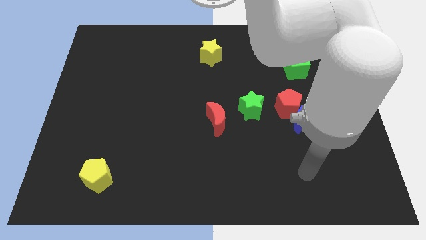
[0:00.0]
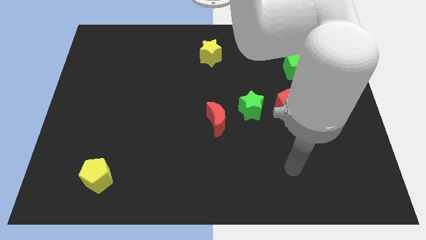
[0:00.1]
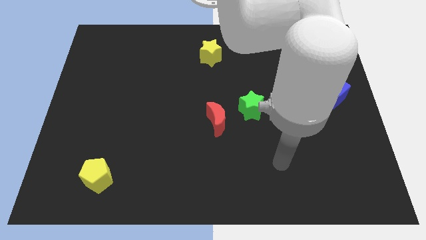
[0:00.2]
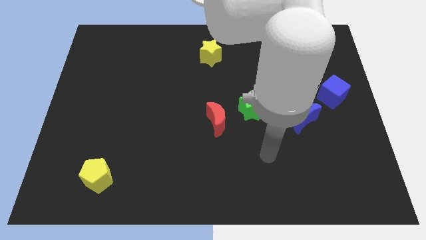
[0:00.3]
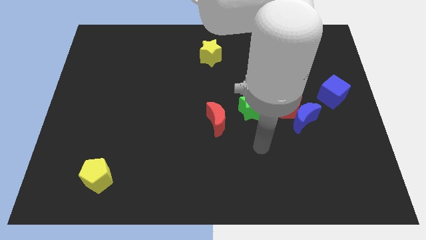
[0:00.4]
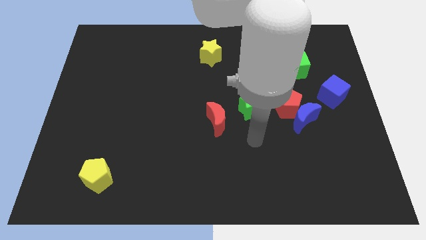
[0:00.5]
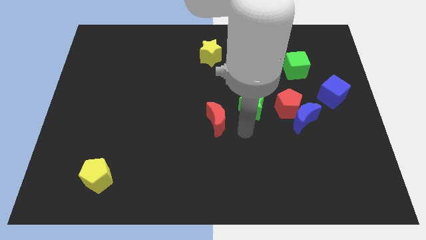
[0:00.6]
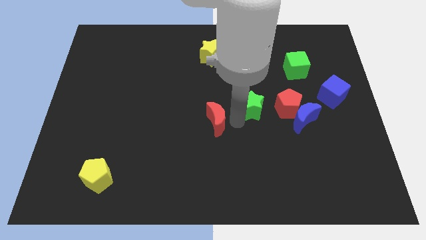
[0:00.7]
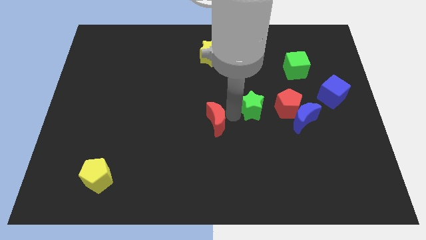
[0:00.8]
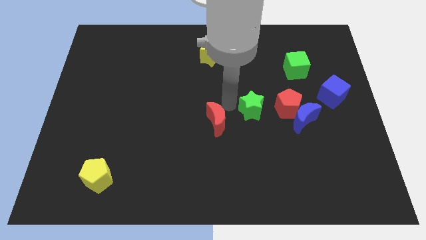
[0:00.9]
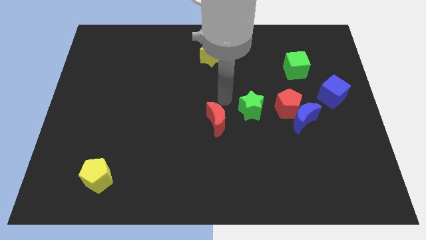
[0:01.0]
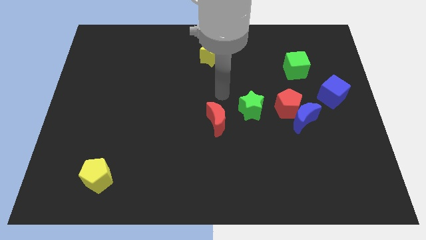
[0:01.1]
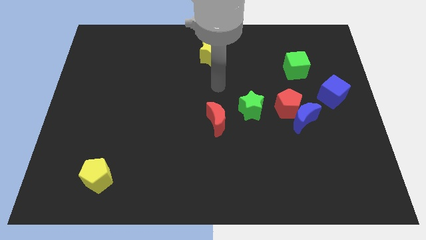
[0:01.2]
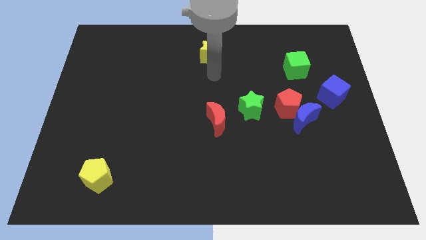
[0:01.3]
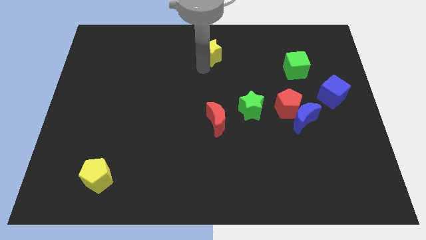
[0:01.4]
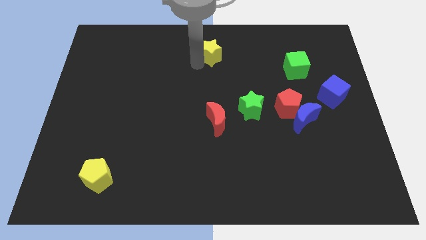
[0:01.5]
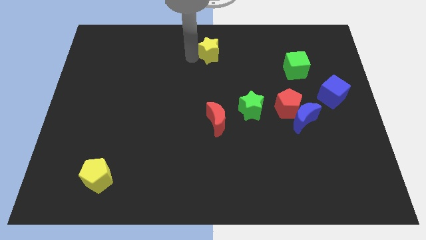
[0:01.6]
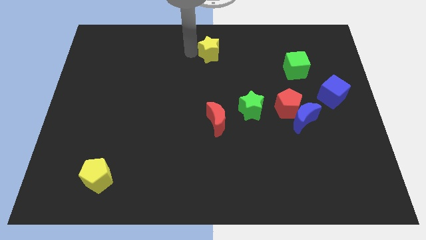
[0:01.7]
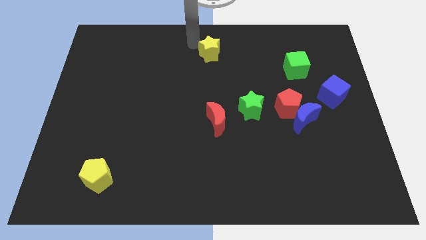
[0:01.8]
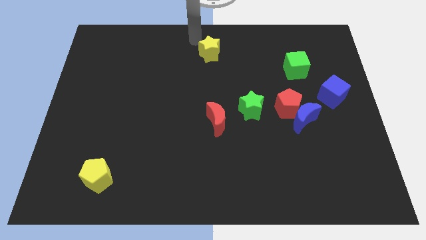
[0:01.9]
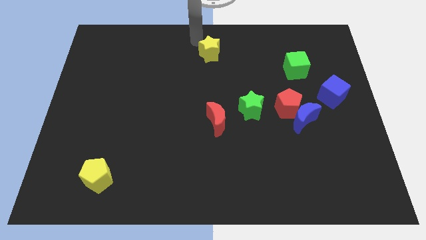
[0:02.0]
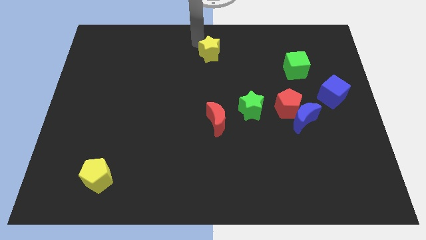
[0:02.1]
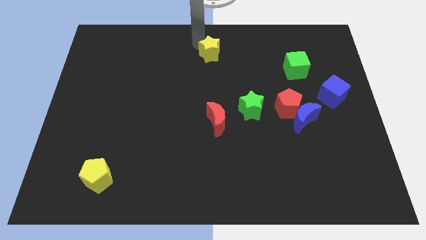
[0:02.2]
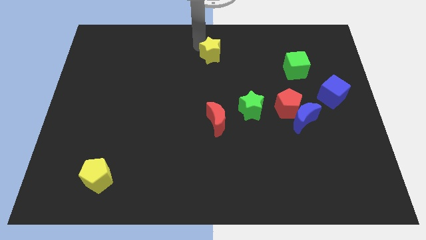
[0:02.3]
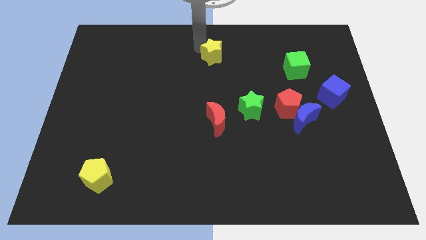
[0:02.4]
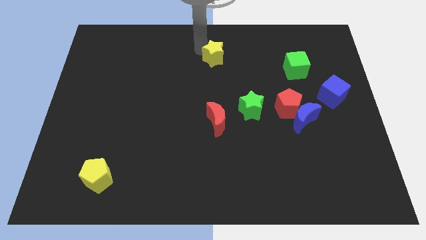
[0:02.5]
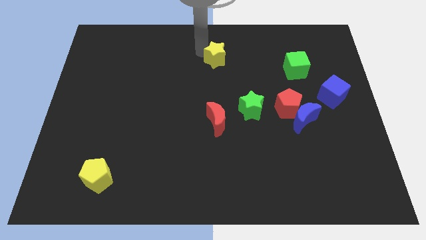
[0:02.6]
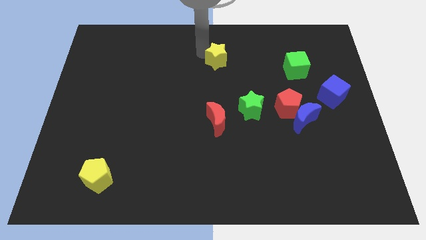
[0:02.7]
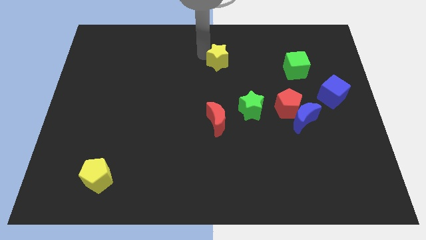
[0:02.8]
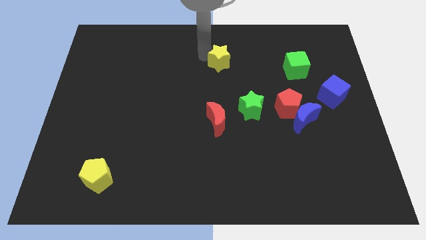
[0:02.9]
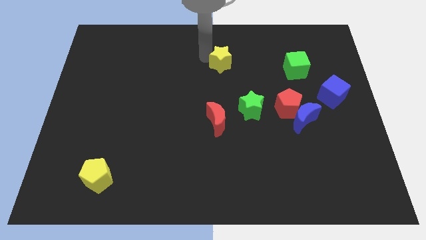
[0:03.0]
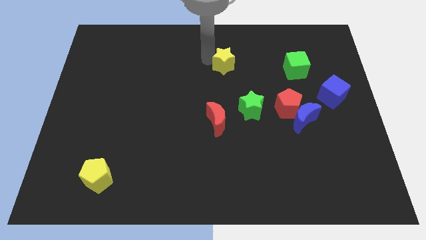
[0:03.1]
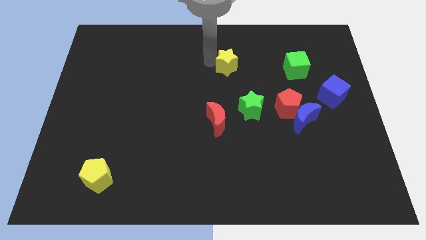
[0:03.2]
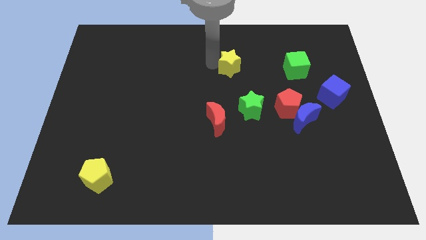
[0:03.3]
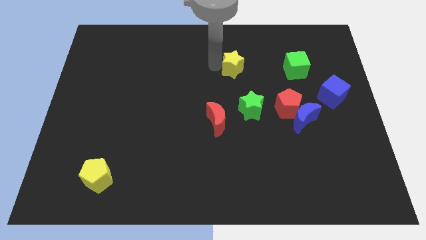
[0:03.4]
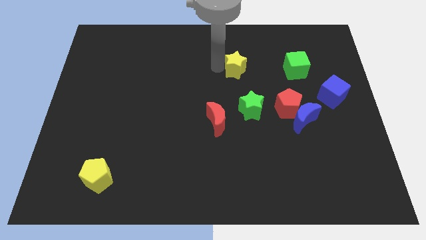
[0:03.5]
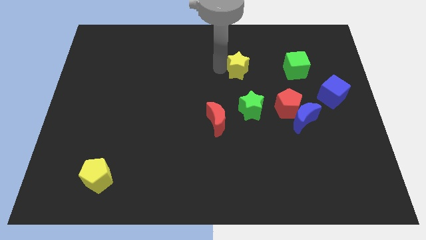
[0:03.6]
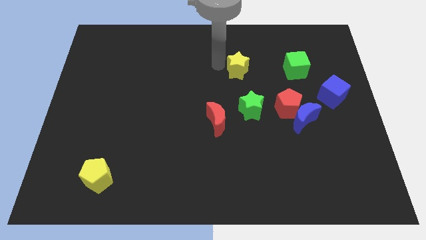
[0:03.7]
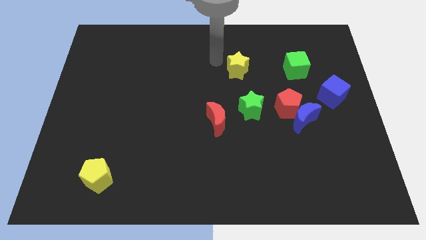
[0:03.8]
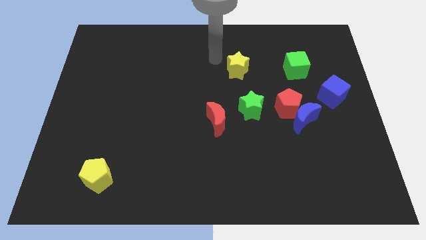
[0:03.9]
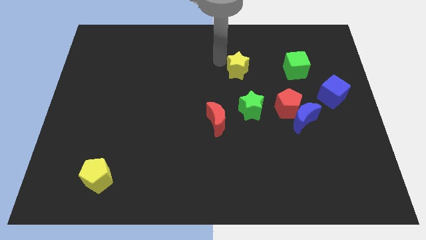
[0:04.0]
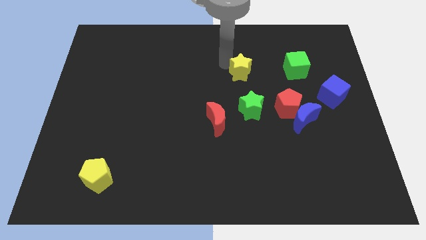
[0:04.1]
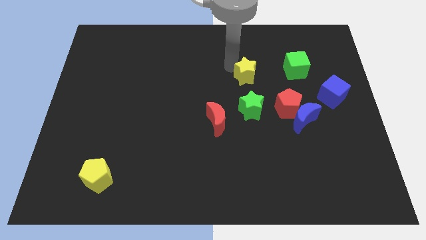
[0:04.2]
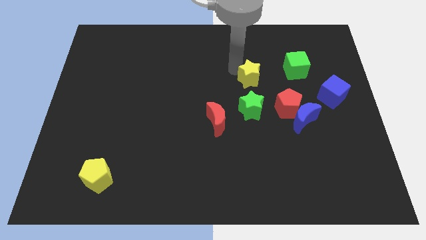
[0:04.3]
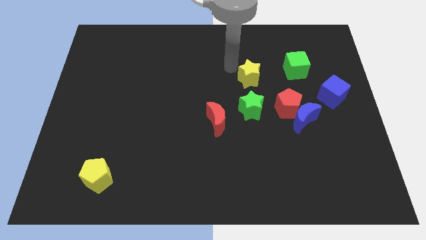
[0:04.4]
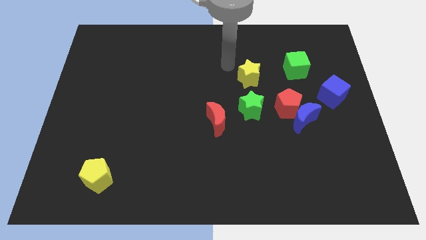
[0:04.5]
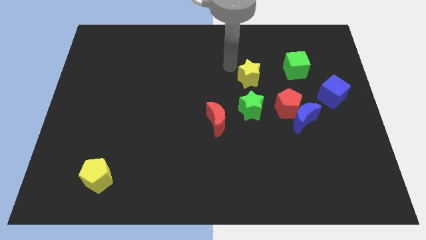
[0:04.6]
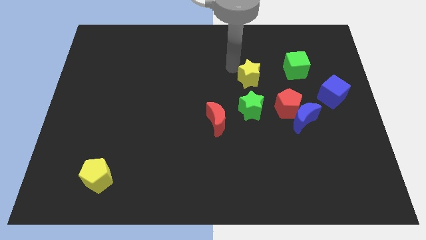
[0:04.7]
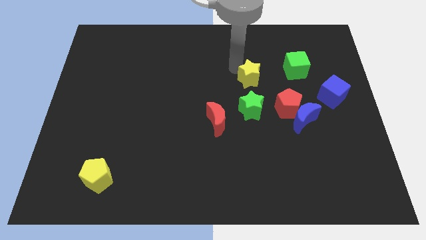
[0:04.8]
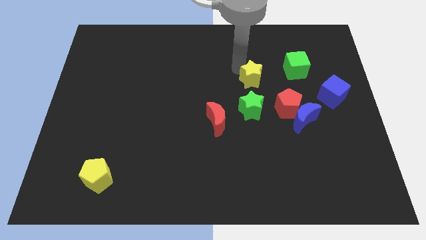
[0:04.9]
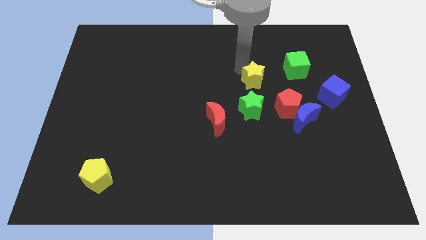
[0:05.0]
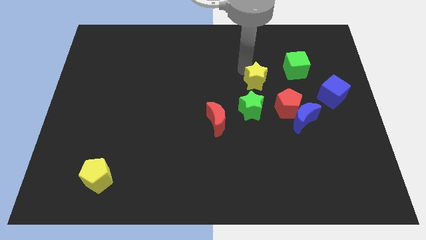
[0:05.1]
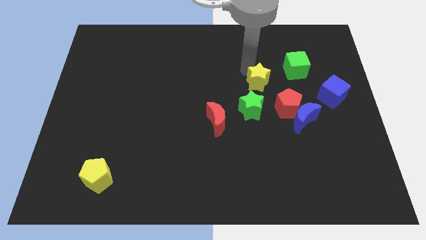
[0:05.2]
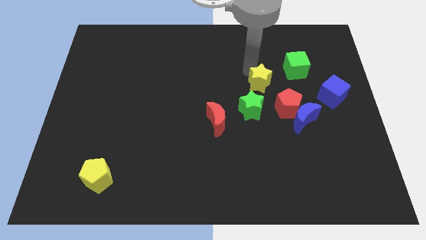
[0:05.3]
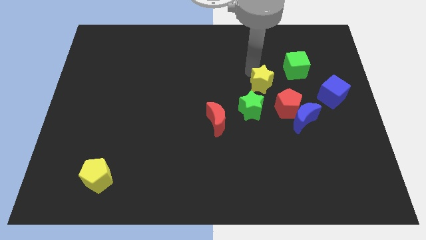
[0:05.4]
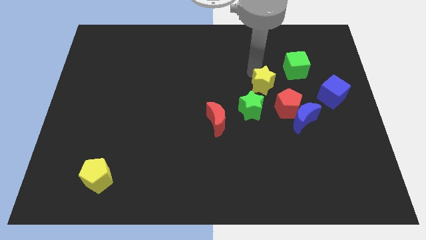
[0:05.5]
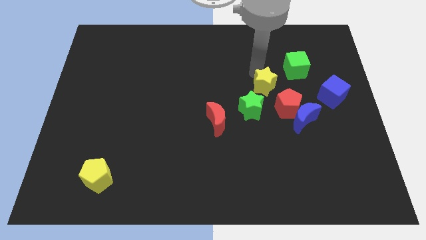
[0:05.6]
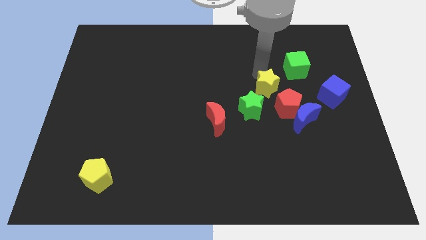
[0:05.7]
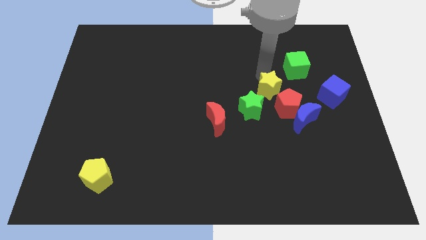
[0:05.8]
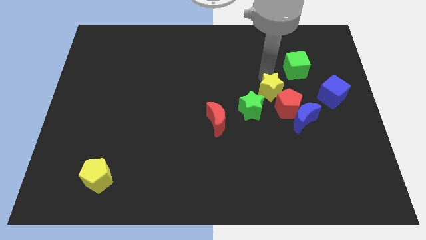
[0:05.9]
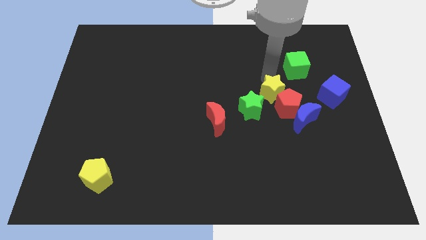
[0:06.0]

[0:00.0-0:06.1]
push the yellow star to the red pentagon

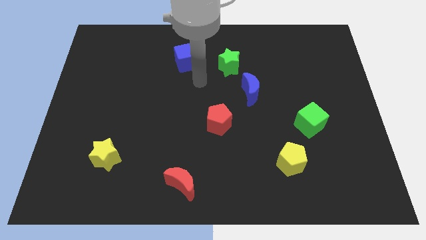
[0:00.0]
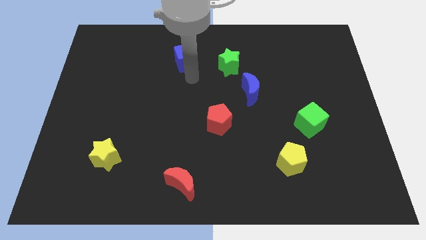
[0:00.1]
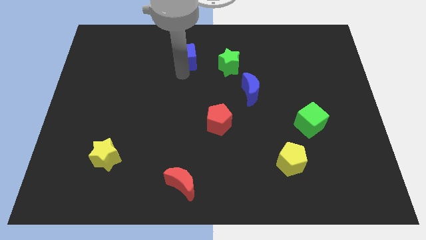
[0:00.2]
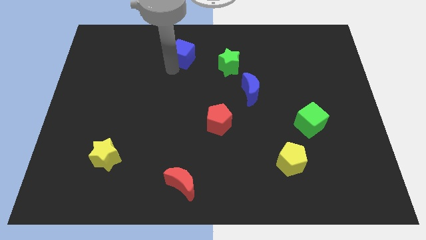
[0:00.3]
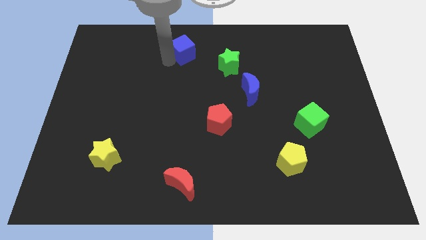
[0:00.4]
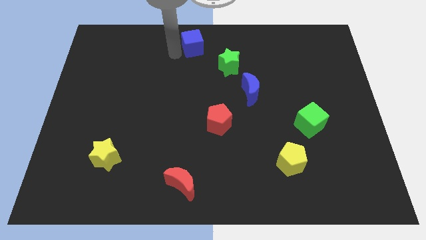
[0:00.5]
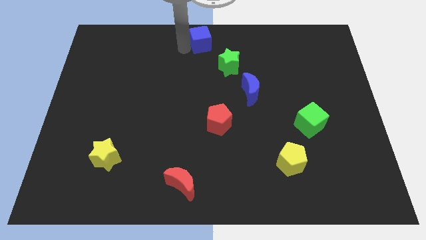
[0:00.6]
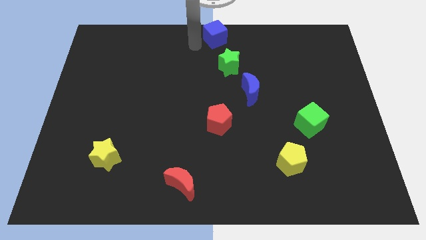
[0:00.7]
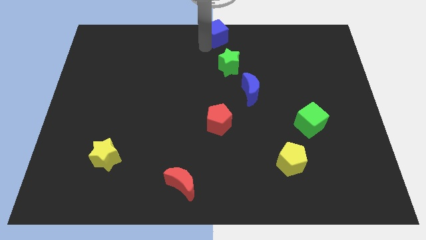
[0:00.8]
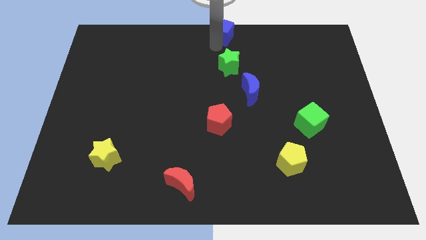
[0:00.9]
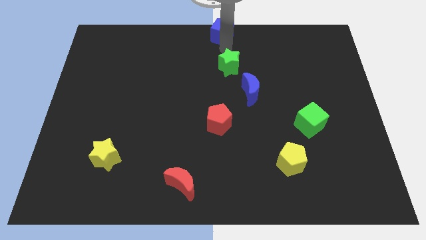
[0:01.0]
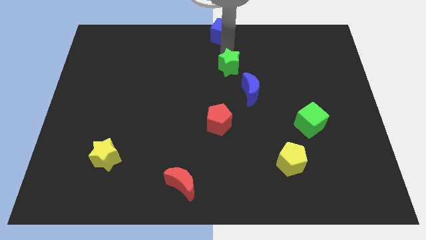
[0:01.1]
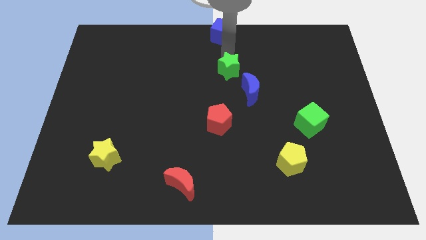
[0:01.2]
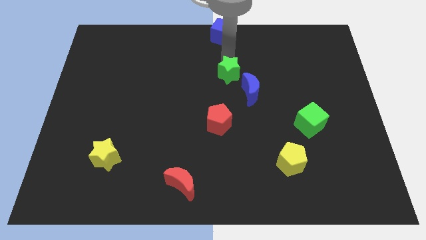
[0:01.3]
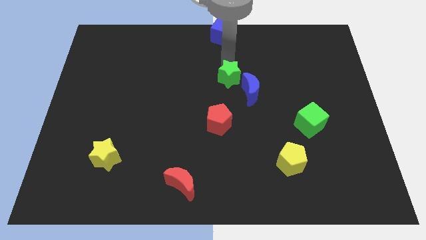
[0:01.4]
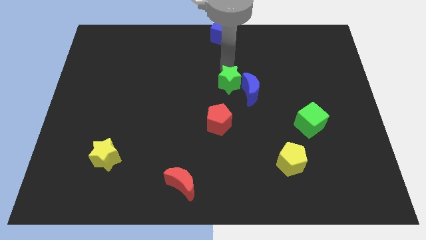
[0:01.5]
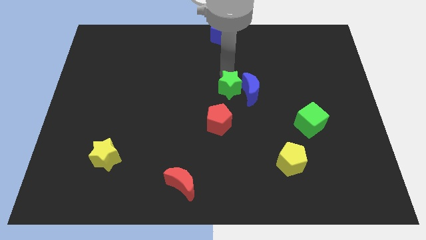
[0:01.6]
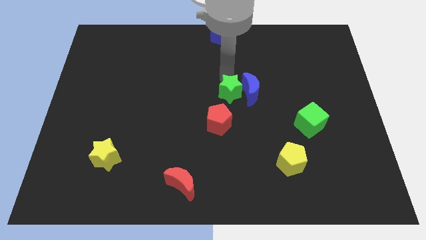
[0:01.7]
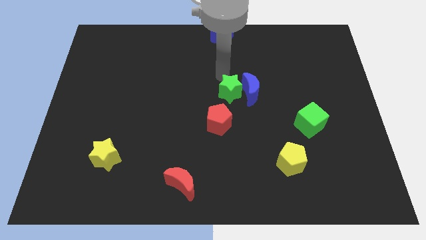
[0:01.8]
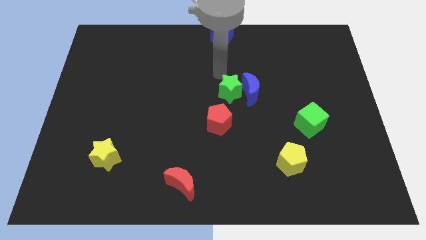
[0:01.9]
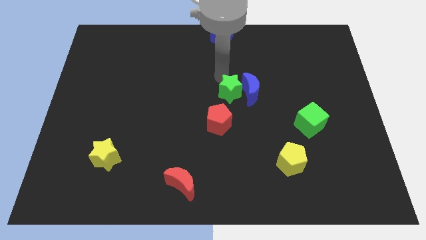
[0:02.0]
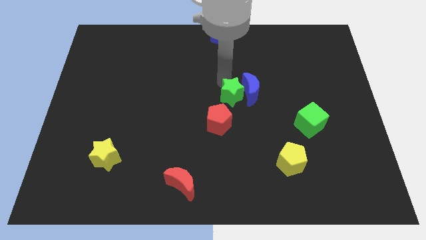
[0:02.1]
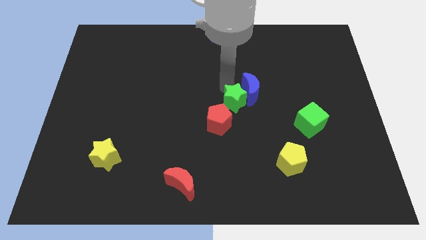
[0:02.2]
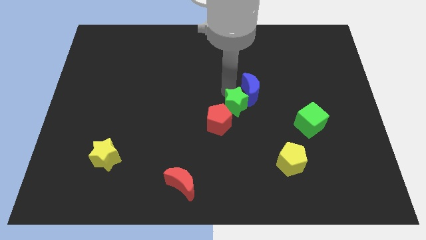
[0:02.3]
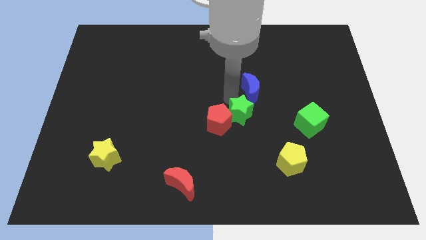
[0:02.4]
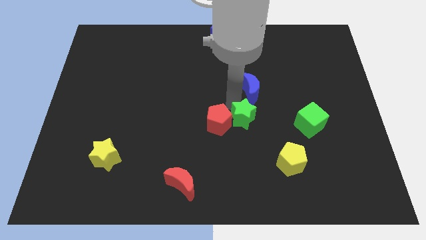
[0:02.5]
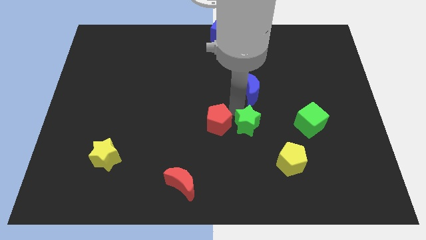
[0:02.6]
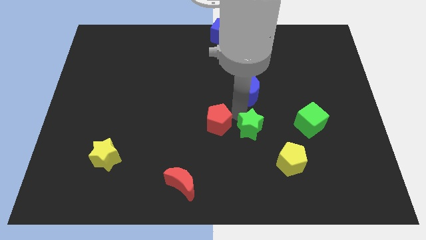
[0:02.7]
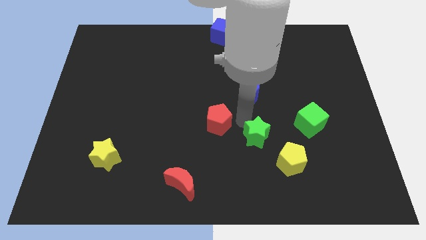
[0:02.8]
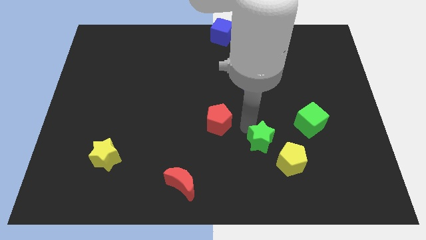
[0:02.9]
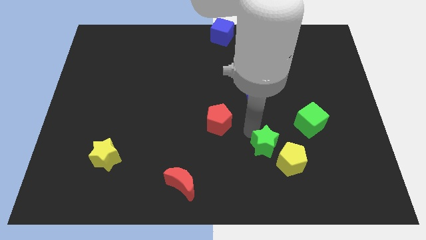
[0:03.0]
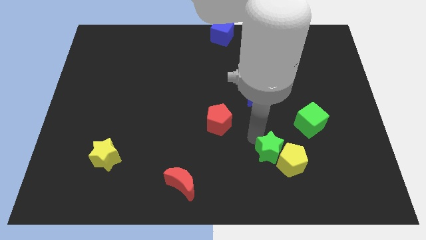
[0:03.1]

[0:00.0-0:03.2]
slide the green star next to the yellow pentagon
